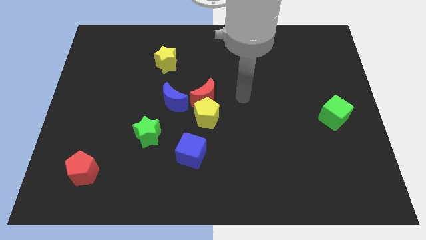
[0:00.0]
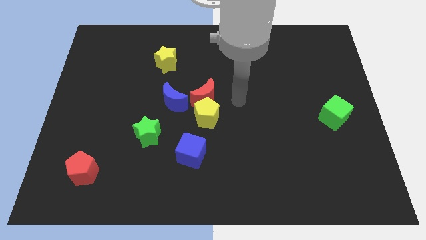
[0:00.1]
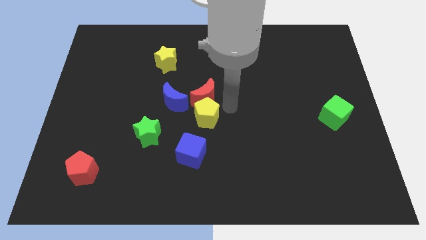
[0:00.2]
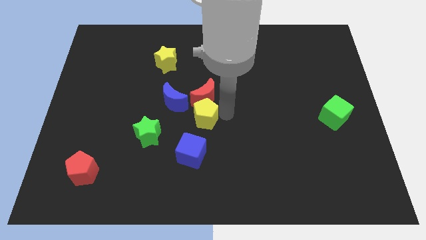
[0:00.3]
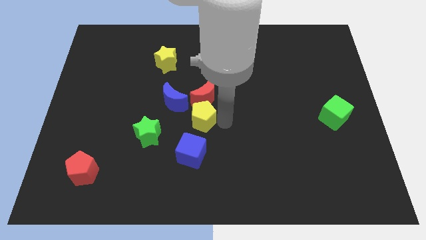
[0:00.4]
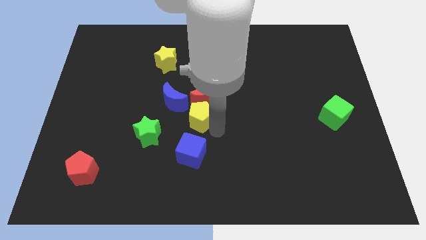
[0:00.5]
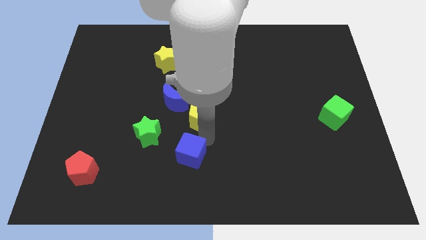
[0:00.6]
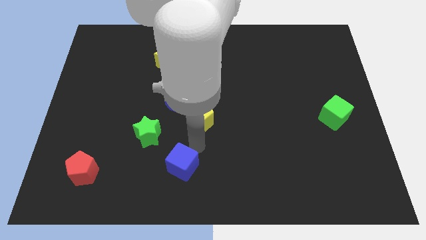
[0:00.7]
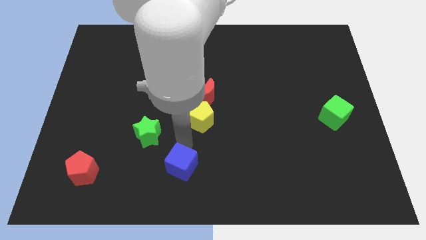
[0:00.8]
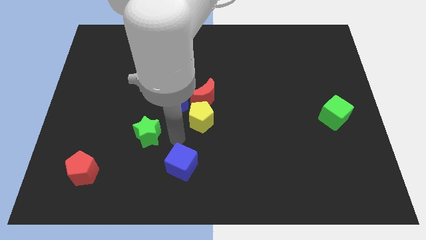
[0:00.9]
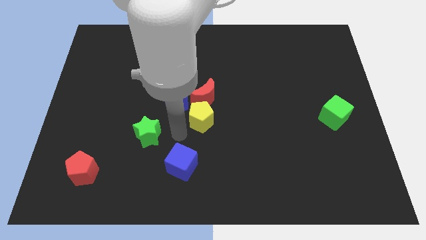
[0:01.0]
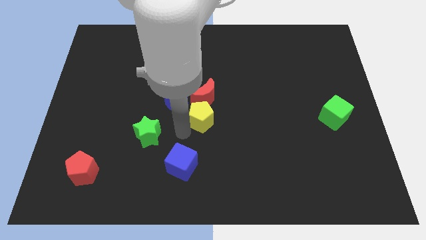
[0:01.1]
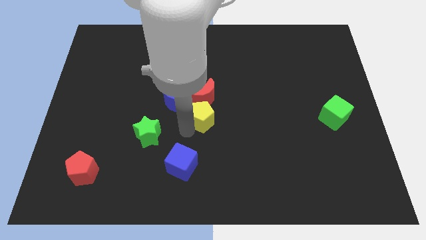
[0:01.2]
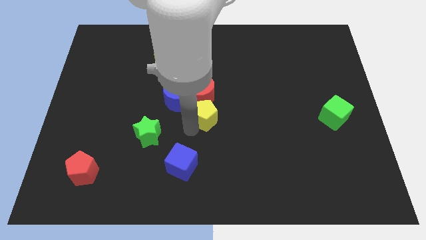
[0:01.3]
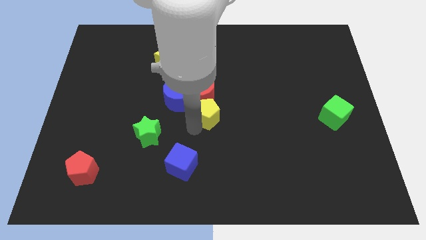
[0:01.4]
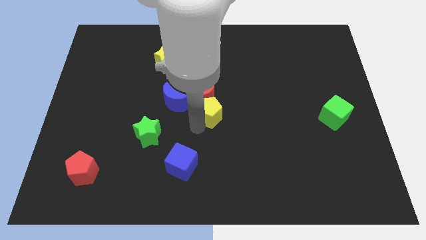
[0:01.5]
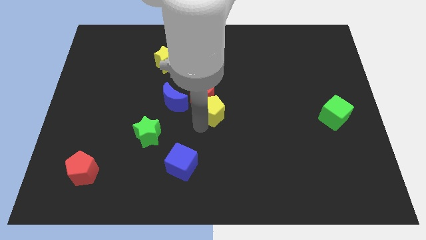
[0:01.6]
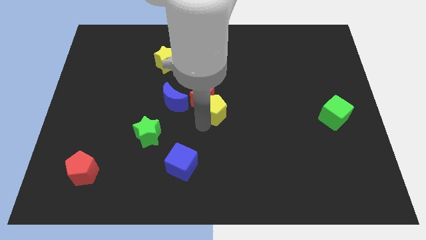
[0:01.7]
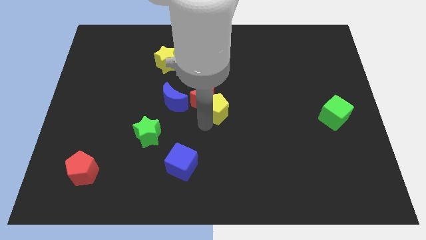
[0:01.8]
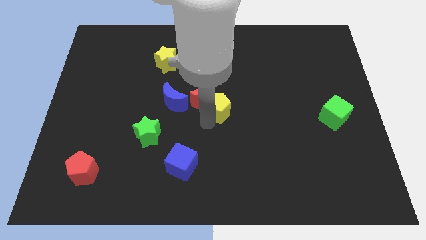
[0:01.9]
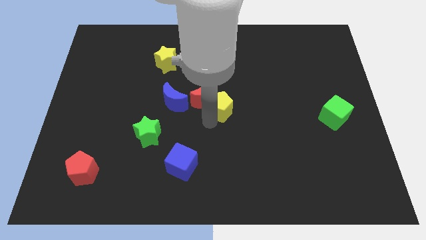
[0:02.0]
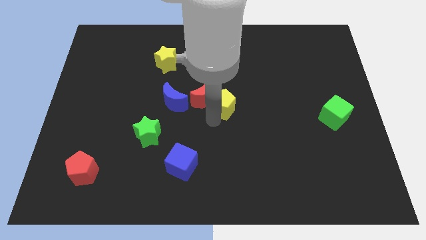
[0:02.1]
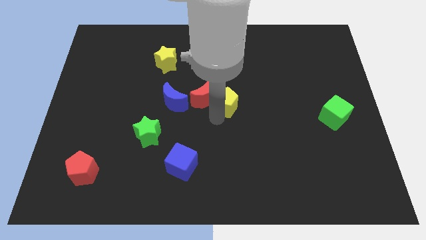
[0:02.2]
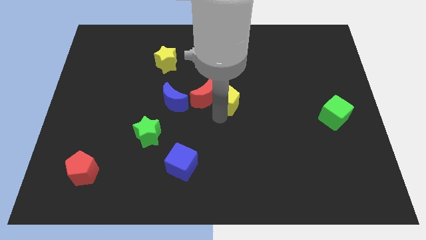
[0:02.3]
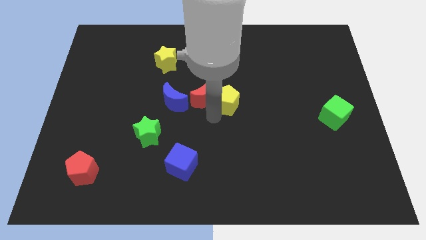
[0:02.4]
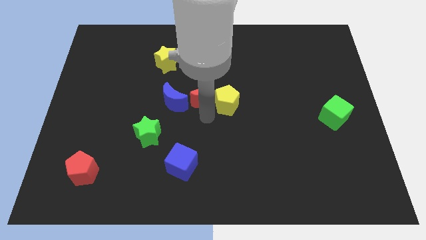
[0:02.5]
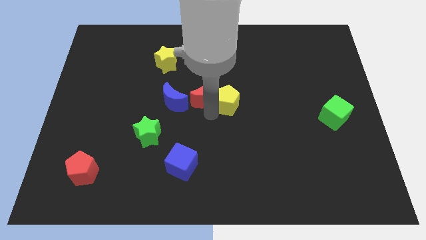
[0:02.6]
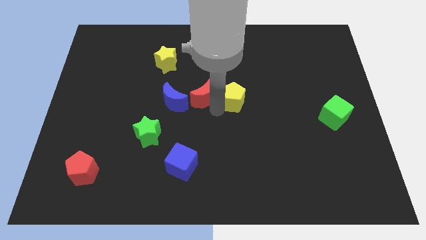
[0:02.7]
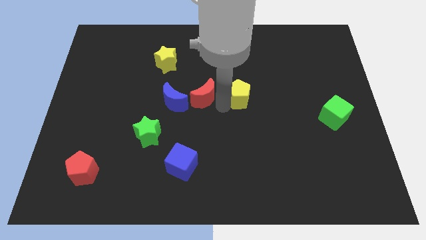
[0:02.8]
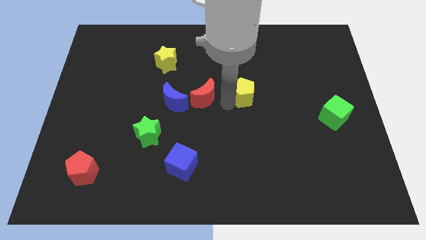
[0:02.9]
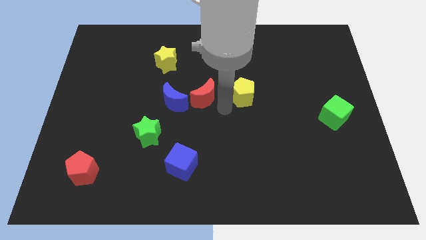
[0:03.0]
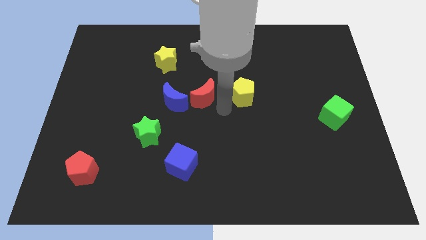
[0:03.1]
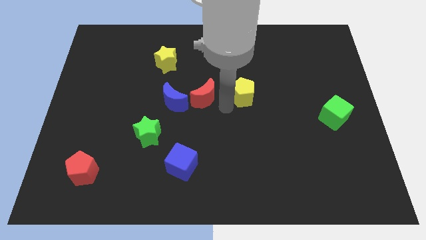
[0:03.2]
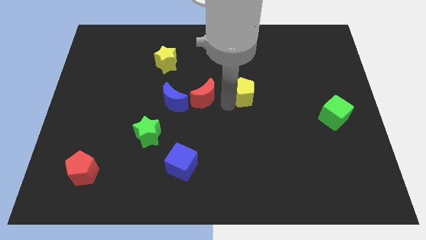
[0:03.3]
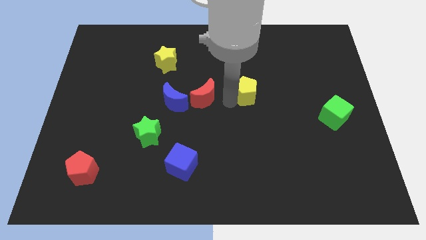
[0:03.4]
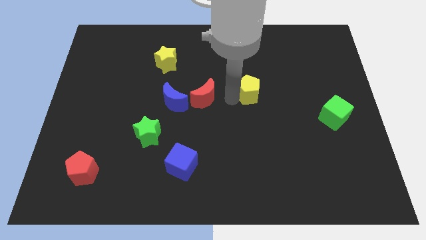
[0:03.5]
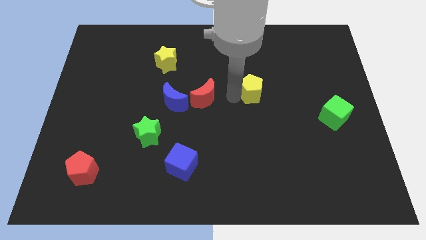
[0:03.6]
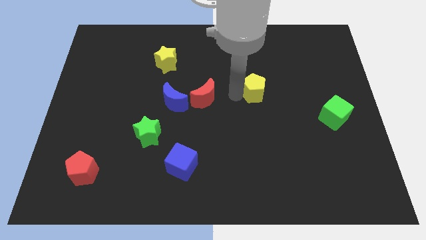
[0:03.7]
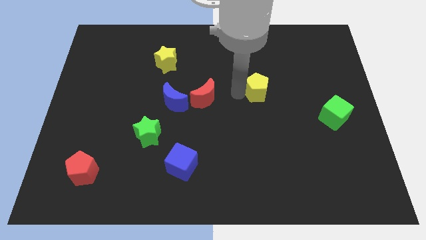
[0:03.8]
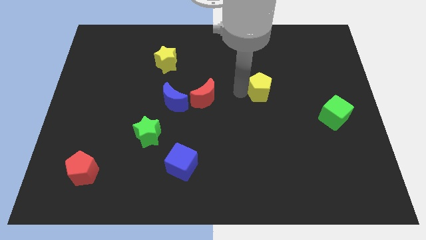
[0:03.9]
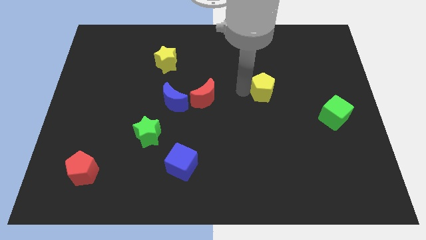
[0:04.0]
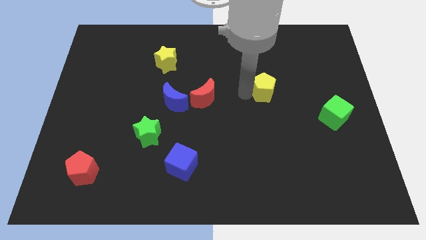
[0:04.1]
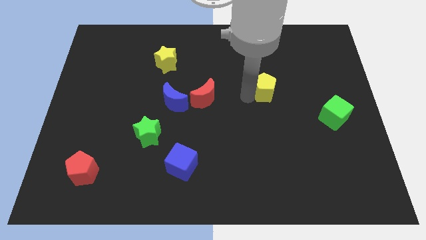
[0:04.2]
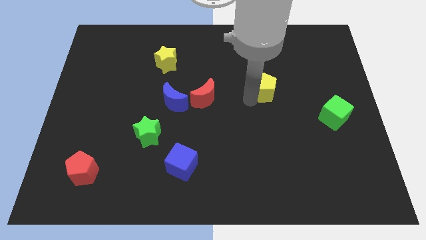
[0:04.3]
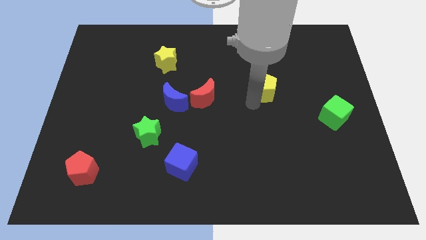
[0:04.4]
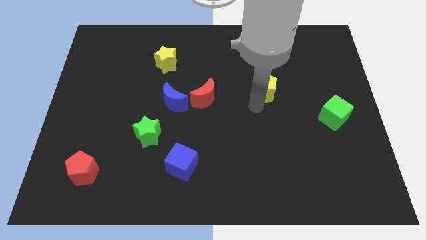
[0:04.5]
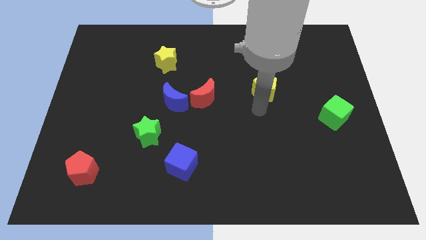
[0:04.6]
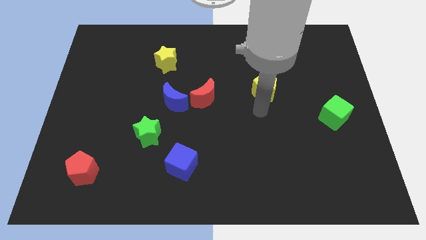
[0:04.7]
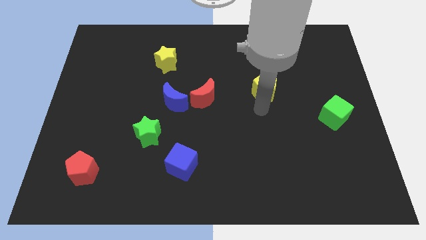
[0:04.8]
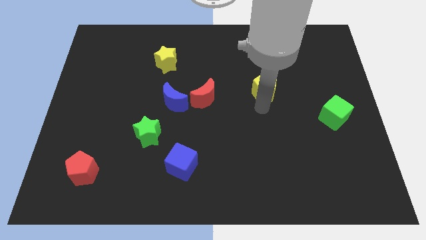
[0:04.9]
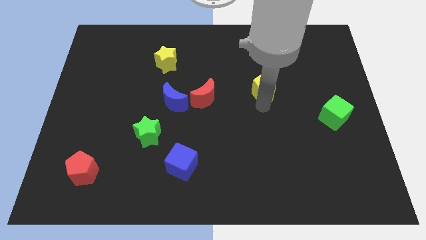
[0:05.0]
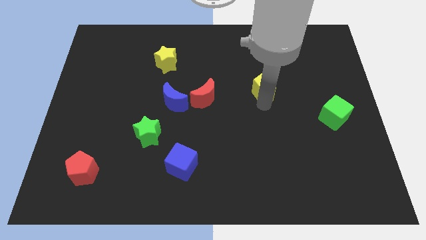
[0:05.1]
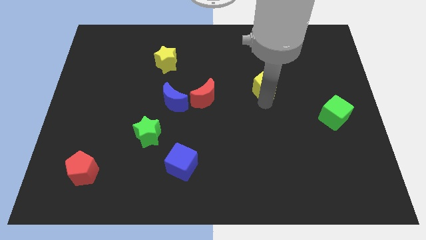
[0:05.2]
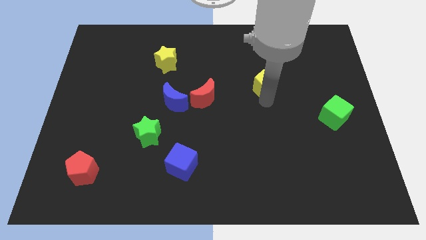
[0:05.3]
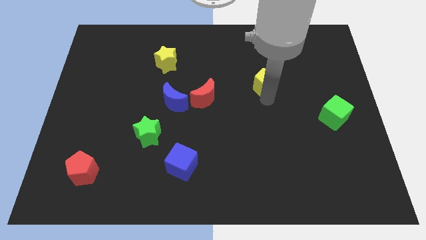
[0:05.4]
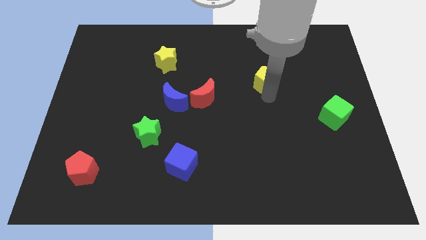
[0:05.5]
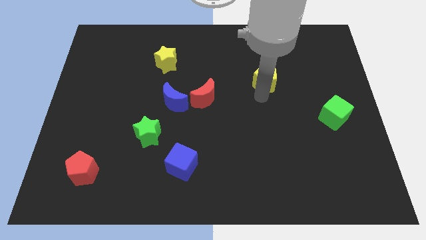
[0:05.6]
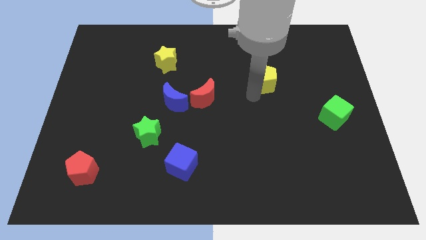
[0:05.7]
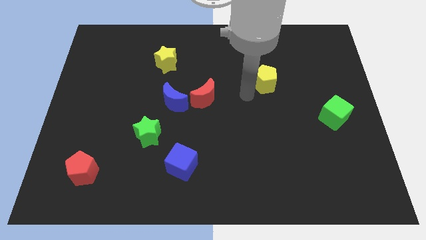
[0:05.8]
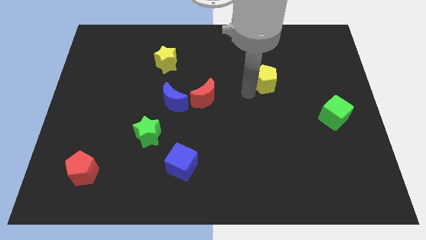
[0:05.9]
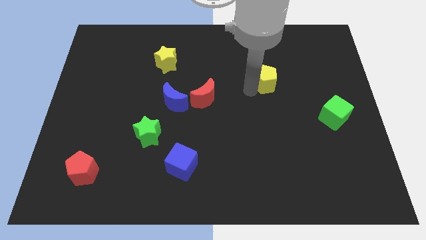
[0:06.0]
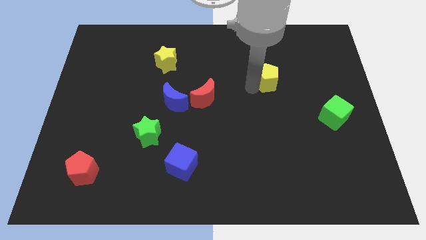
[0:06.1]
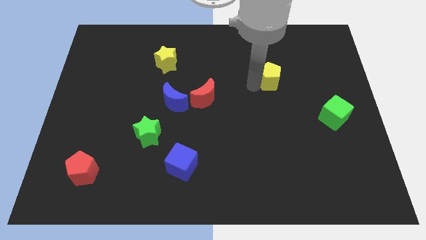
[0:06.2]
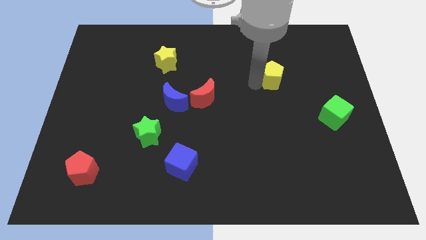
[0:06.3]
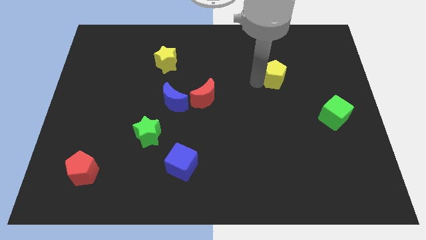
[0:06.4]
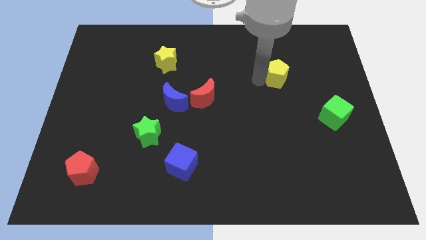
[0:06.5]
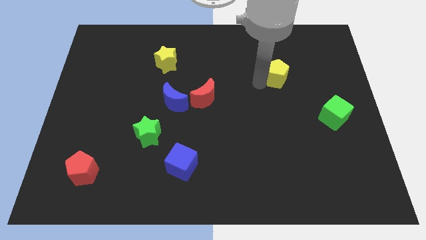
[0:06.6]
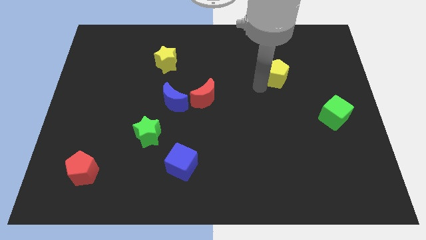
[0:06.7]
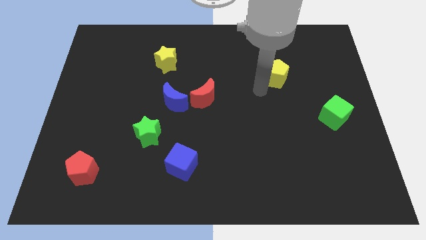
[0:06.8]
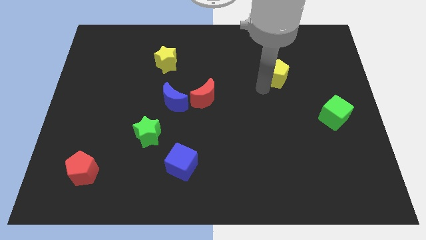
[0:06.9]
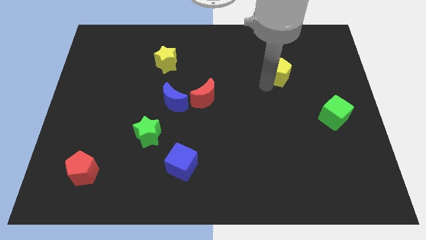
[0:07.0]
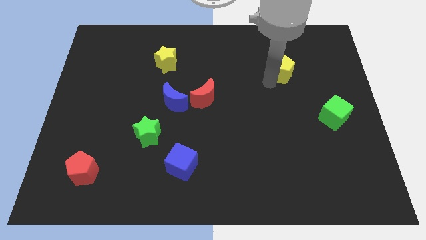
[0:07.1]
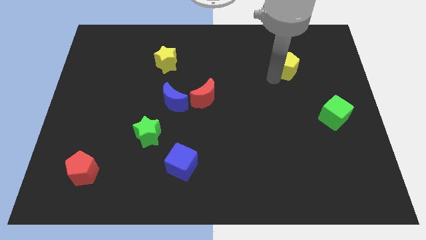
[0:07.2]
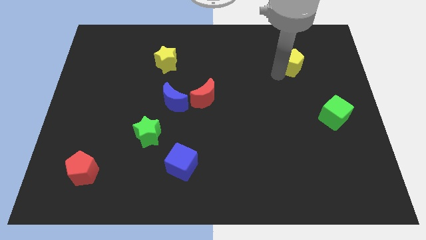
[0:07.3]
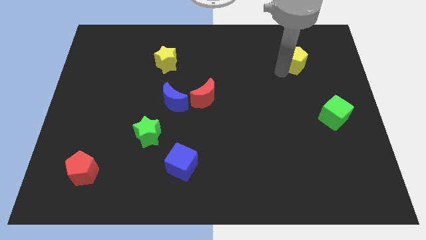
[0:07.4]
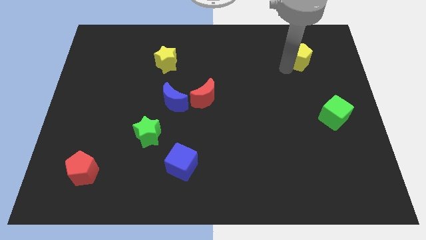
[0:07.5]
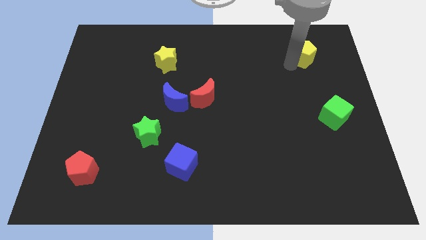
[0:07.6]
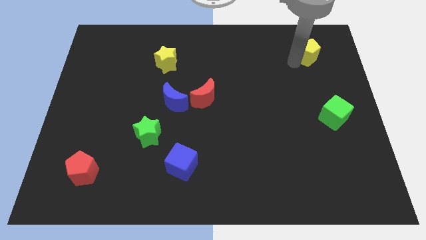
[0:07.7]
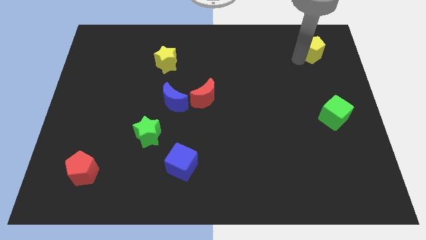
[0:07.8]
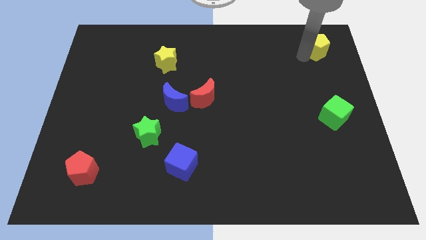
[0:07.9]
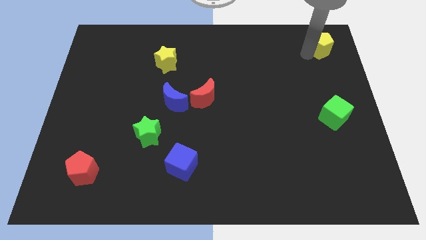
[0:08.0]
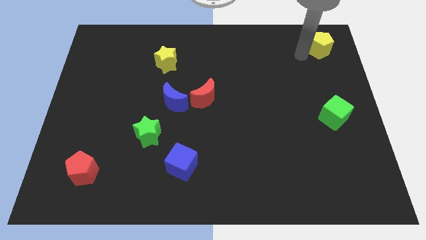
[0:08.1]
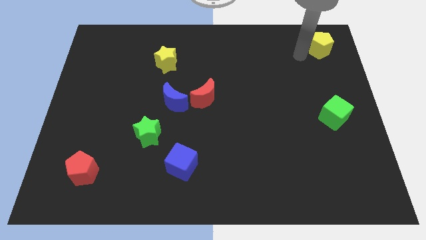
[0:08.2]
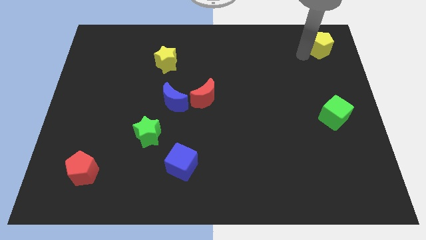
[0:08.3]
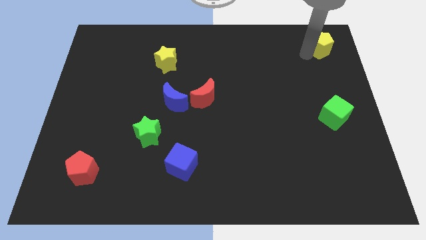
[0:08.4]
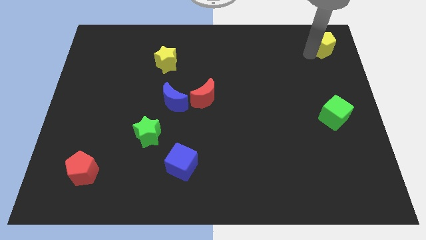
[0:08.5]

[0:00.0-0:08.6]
push the yellow pentagon to the top right of the board
